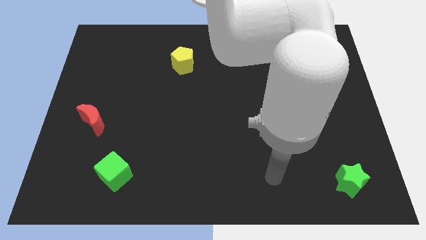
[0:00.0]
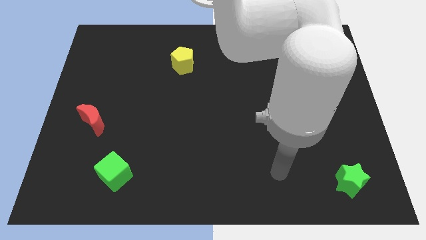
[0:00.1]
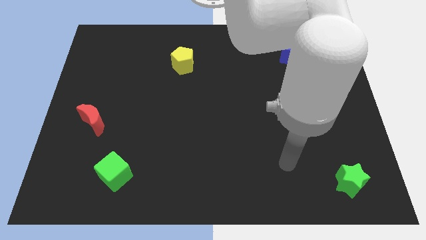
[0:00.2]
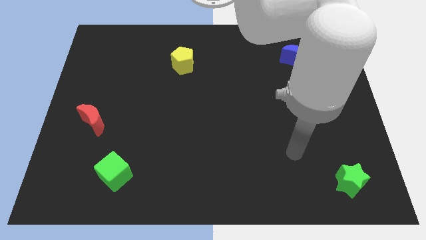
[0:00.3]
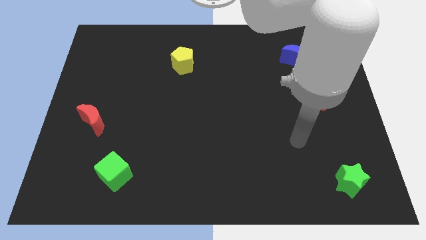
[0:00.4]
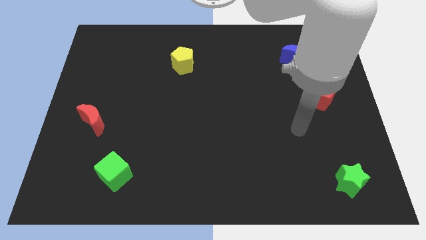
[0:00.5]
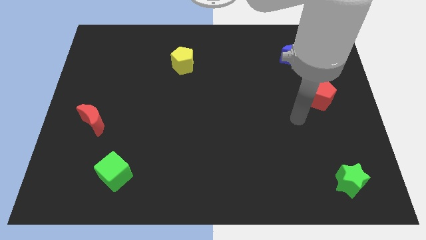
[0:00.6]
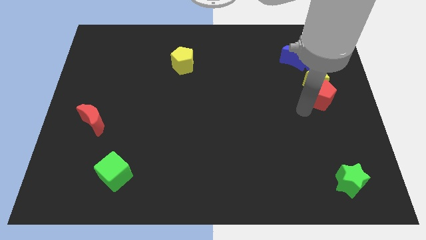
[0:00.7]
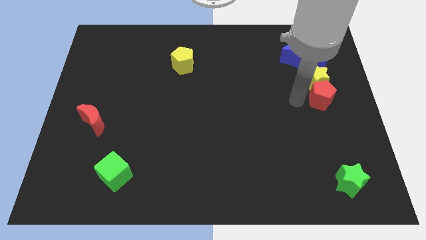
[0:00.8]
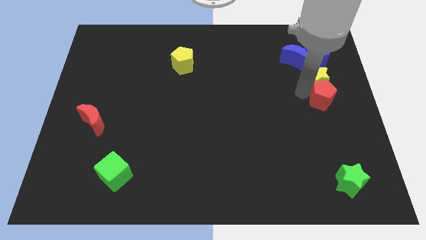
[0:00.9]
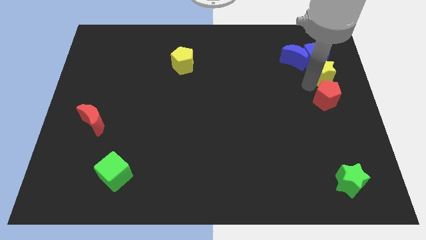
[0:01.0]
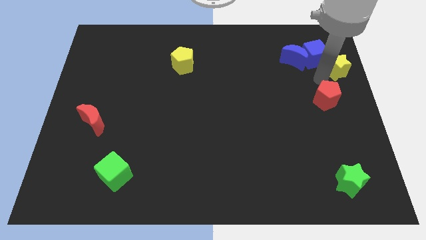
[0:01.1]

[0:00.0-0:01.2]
separate the red pentagon from the yellow star

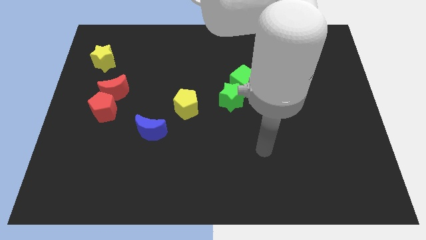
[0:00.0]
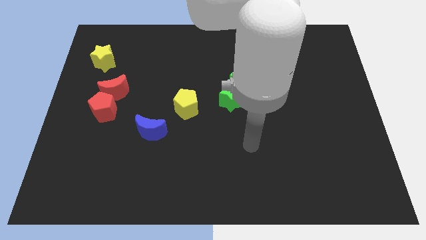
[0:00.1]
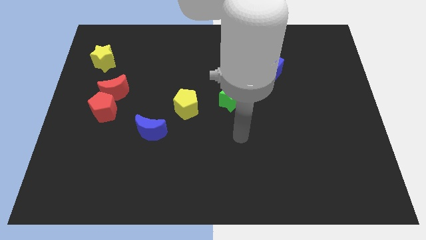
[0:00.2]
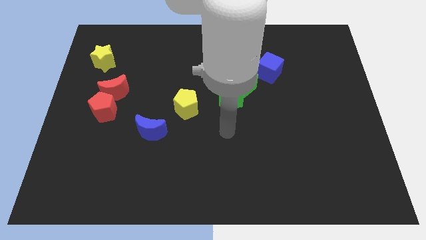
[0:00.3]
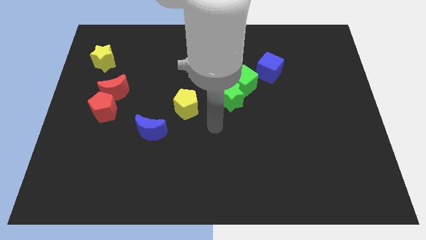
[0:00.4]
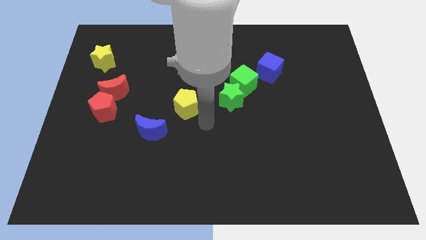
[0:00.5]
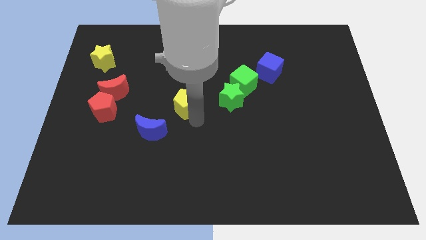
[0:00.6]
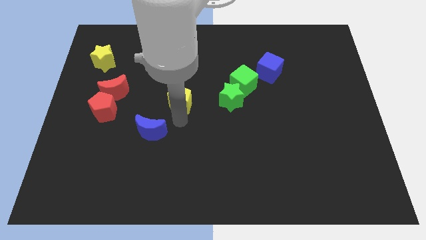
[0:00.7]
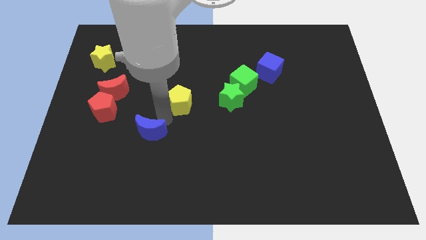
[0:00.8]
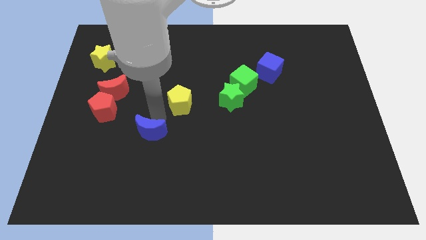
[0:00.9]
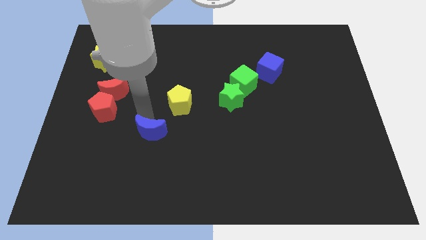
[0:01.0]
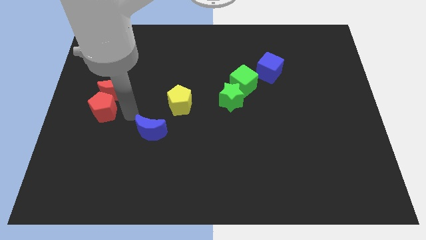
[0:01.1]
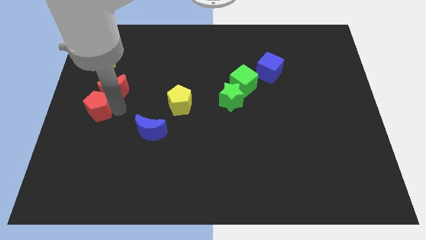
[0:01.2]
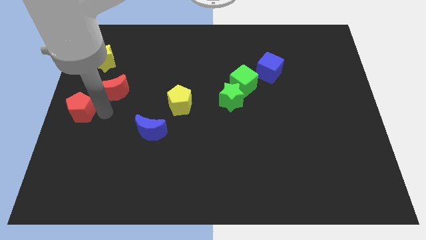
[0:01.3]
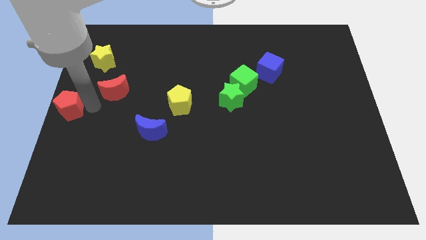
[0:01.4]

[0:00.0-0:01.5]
pull the red moon apart from the red pentagon

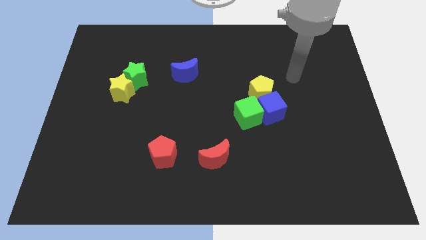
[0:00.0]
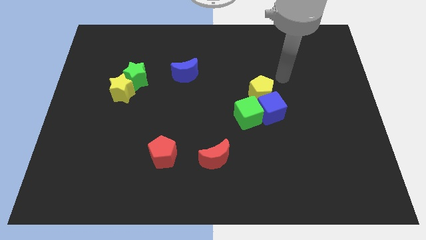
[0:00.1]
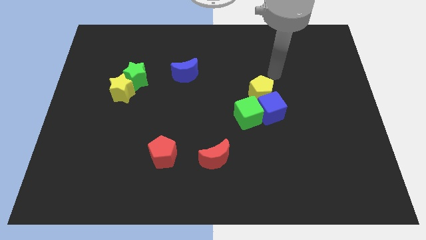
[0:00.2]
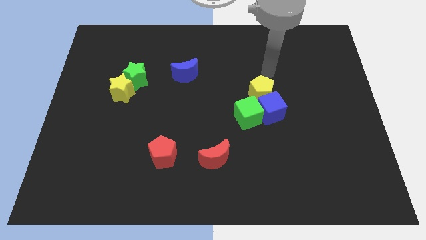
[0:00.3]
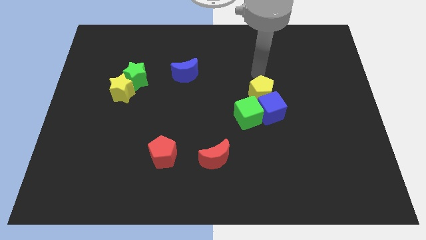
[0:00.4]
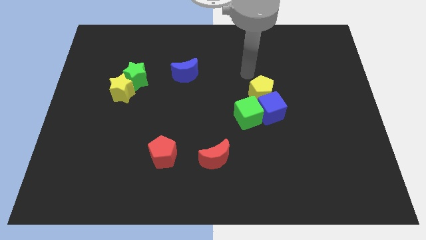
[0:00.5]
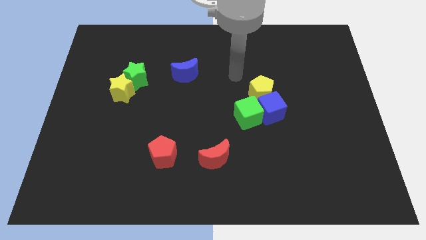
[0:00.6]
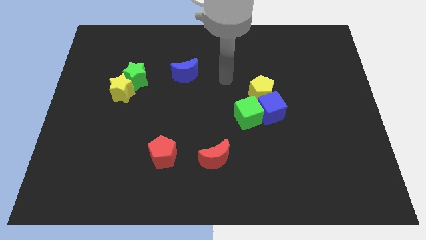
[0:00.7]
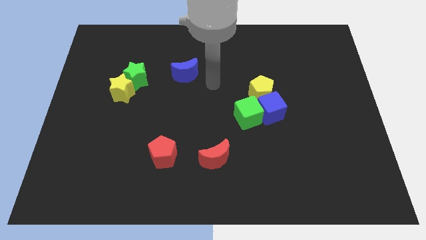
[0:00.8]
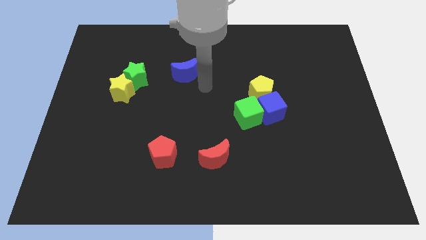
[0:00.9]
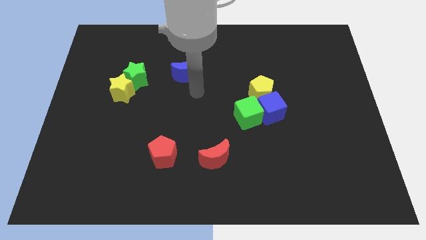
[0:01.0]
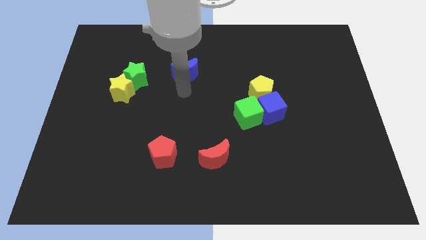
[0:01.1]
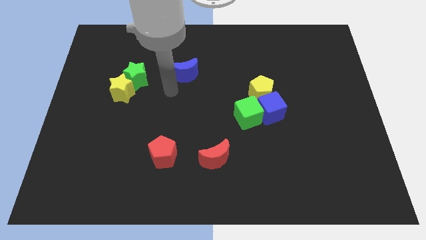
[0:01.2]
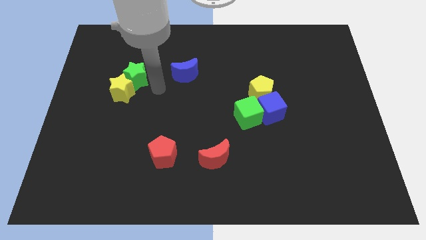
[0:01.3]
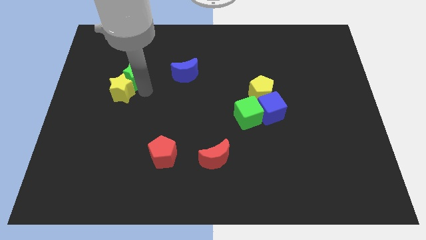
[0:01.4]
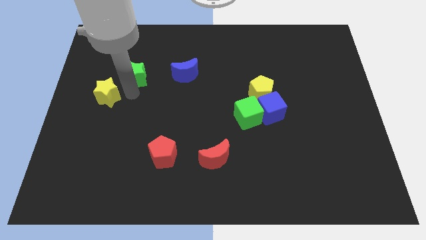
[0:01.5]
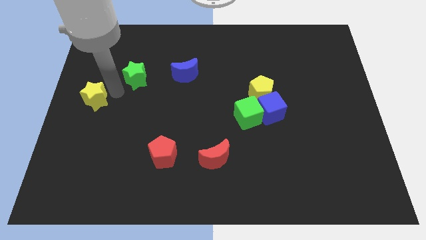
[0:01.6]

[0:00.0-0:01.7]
pull the green star apart from the yellow star

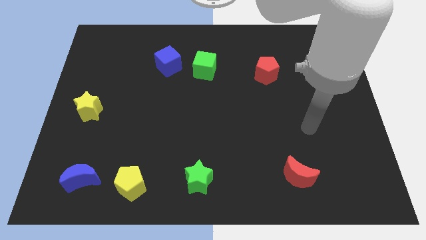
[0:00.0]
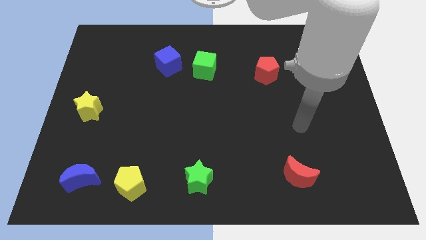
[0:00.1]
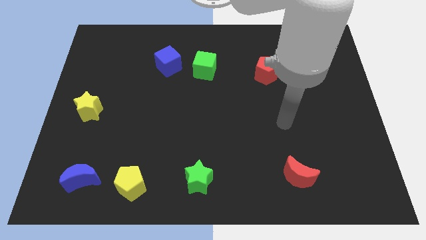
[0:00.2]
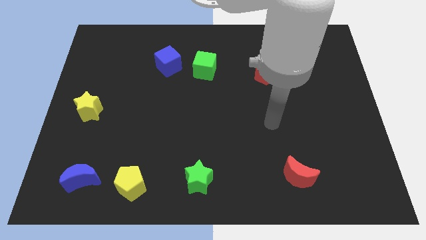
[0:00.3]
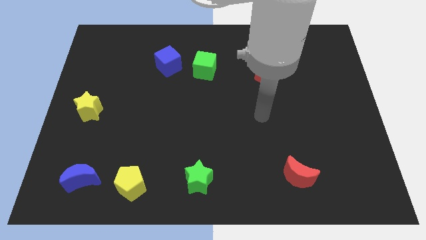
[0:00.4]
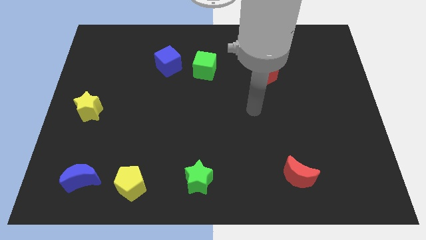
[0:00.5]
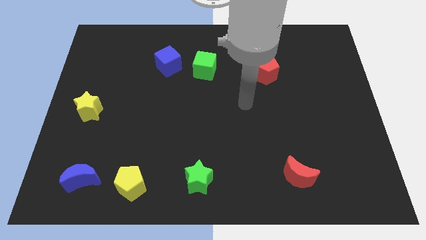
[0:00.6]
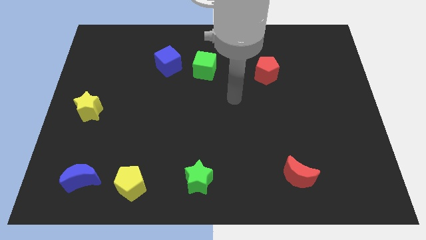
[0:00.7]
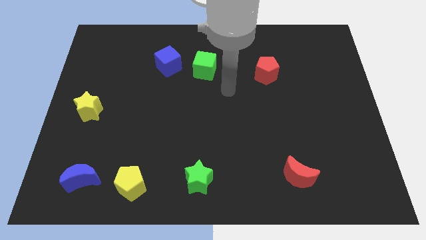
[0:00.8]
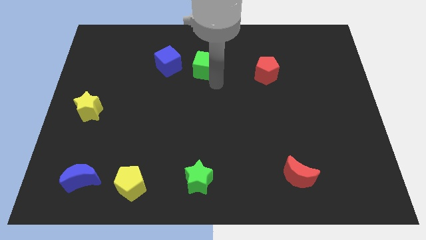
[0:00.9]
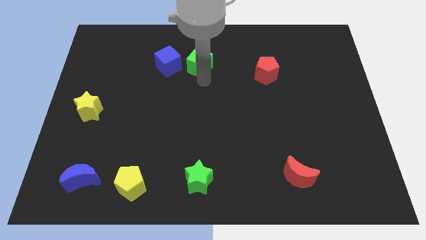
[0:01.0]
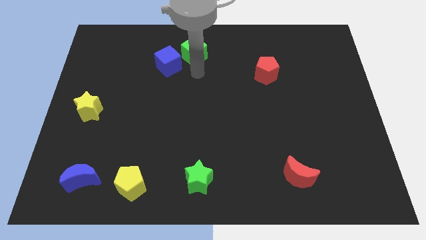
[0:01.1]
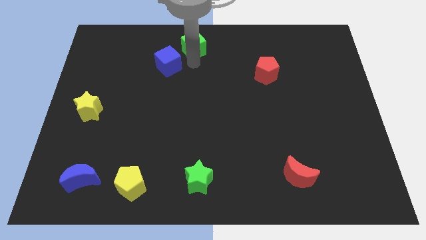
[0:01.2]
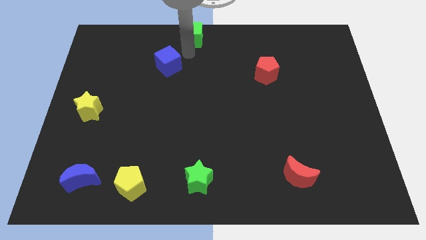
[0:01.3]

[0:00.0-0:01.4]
separate the blue cube from the green cube

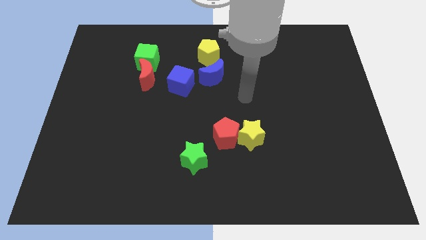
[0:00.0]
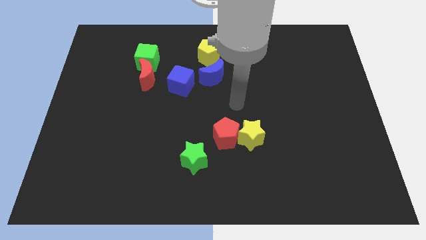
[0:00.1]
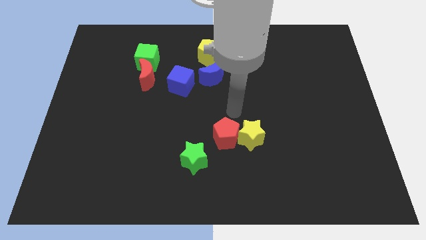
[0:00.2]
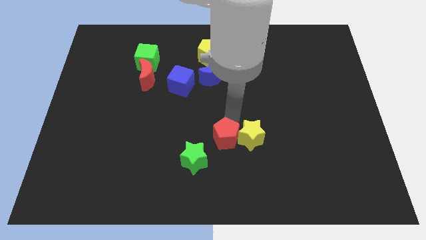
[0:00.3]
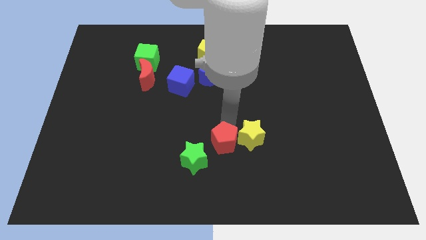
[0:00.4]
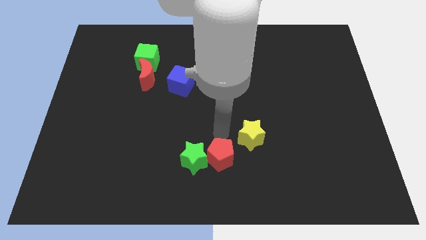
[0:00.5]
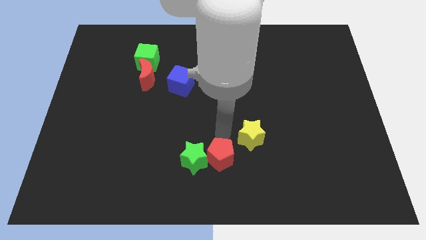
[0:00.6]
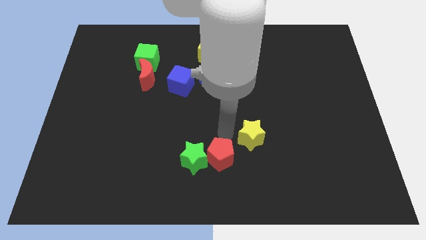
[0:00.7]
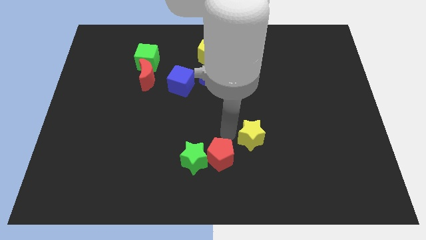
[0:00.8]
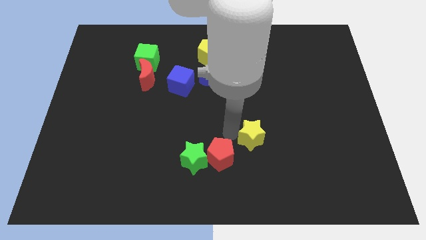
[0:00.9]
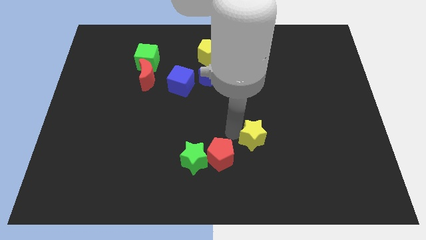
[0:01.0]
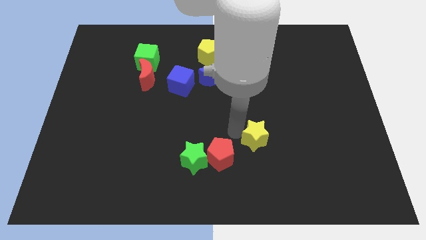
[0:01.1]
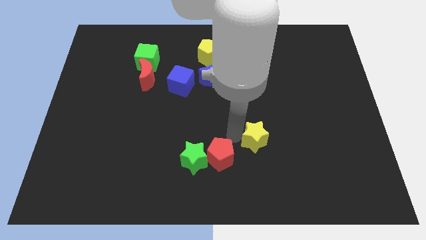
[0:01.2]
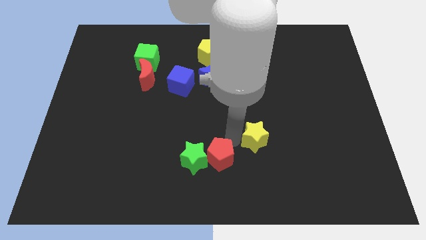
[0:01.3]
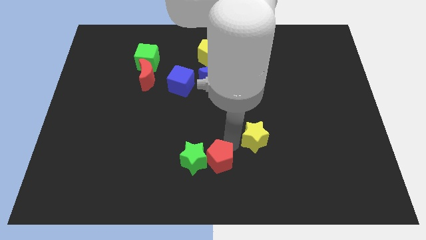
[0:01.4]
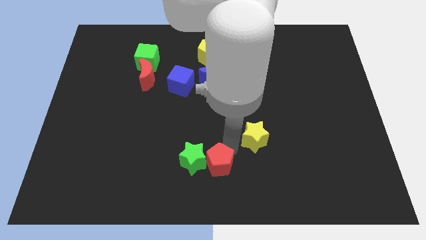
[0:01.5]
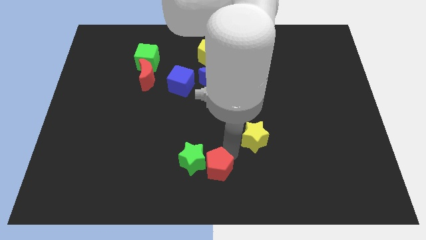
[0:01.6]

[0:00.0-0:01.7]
move the yellow star away from the red pentagon

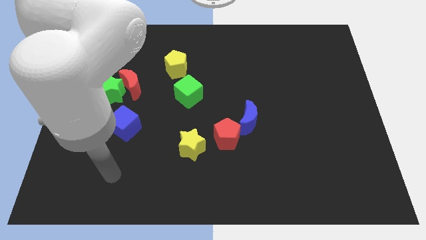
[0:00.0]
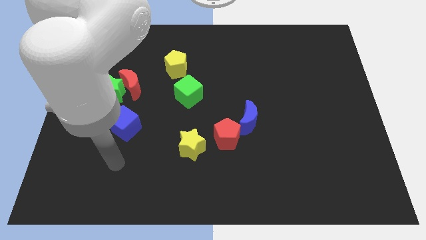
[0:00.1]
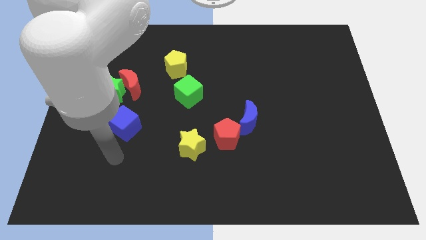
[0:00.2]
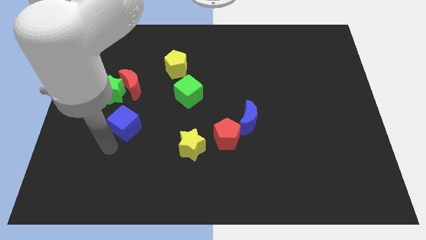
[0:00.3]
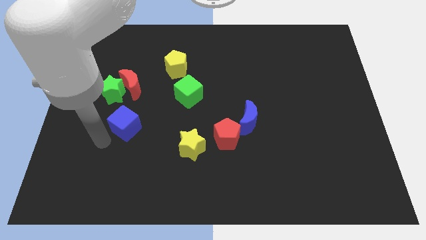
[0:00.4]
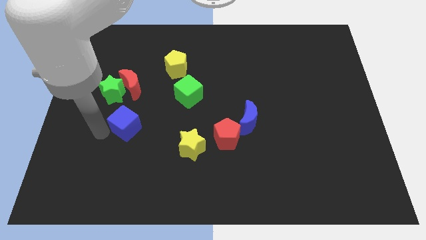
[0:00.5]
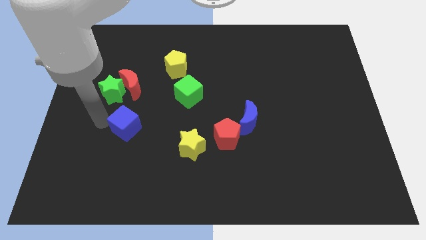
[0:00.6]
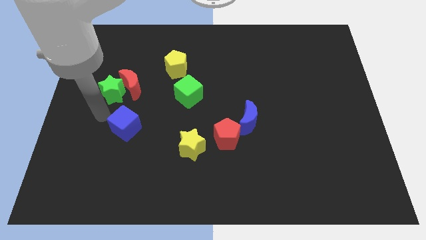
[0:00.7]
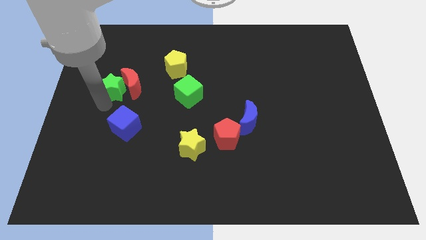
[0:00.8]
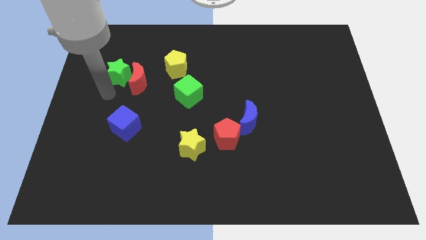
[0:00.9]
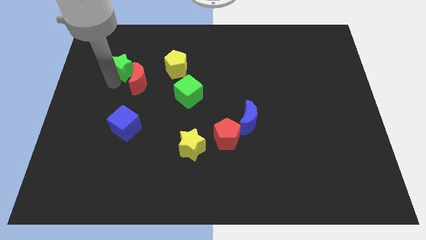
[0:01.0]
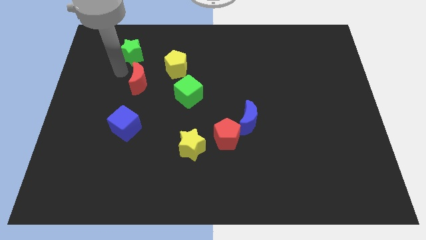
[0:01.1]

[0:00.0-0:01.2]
separate the red moon from the green star

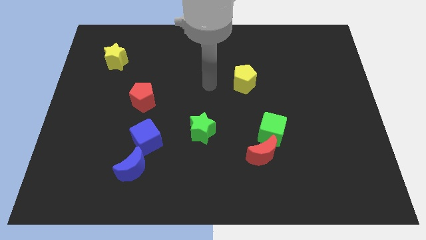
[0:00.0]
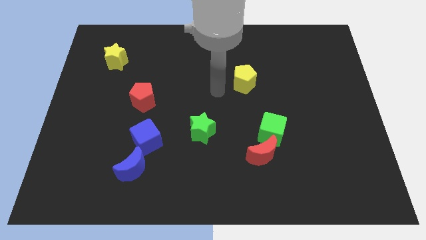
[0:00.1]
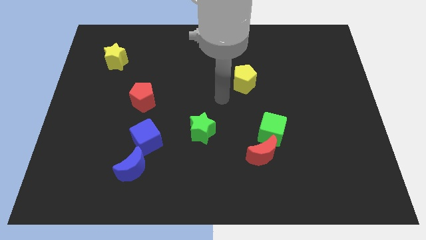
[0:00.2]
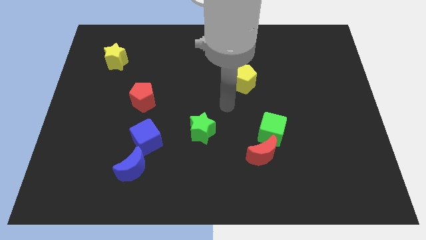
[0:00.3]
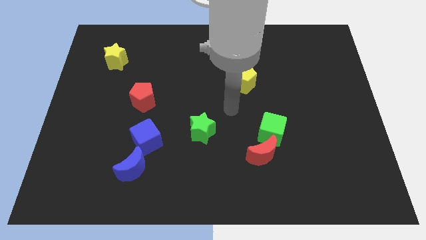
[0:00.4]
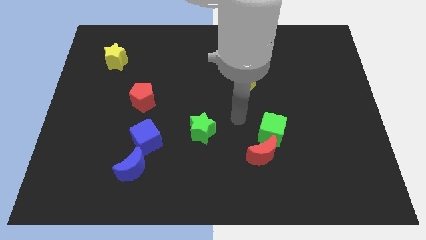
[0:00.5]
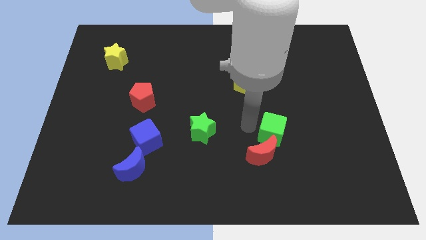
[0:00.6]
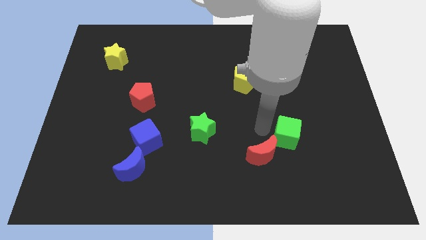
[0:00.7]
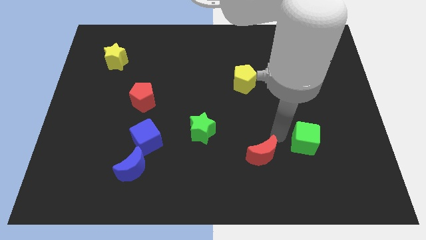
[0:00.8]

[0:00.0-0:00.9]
separate the red moon from the green cube
